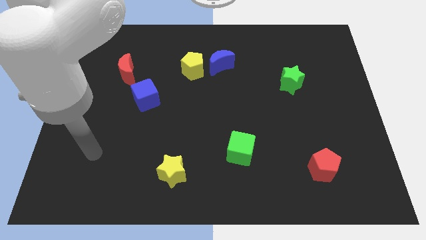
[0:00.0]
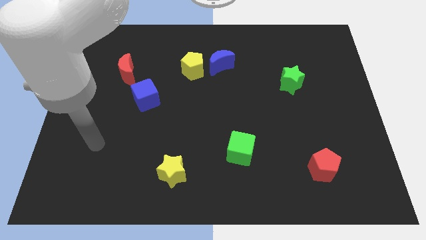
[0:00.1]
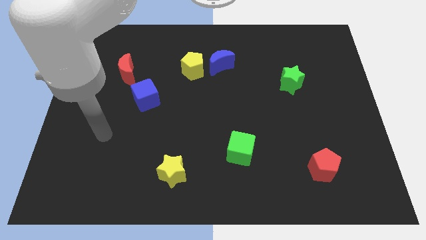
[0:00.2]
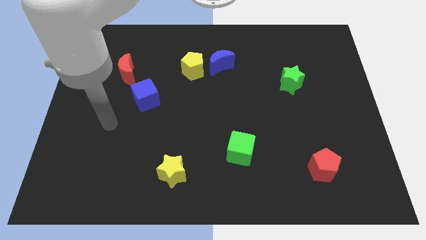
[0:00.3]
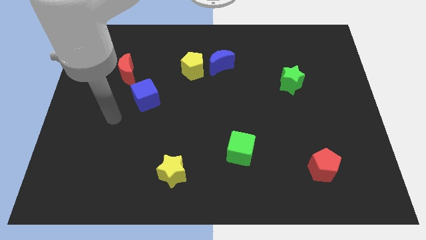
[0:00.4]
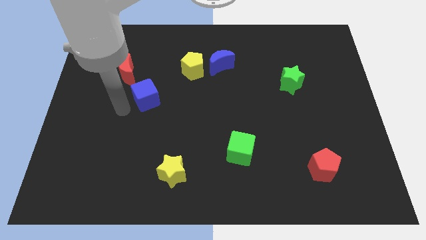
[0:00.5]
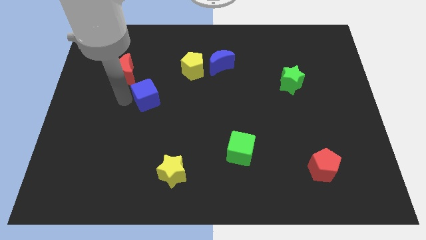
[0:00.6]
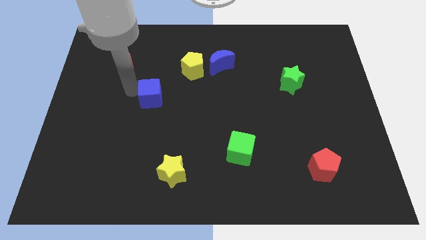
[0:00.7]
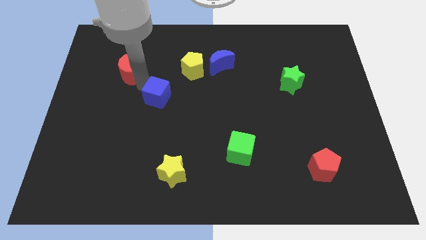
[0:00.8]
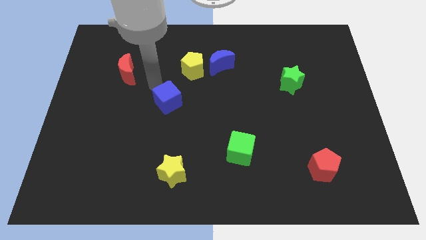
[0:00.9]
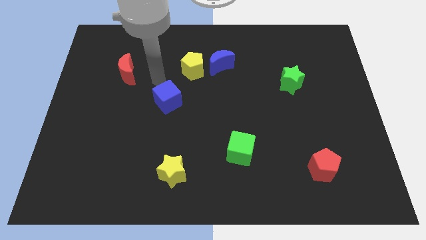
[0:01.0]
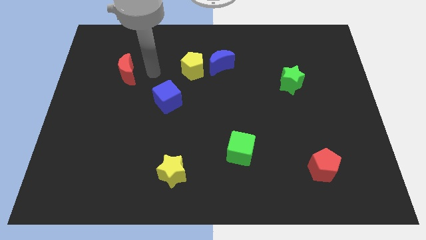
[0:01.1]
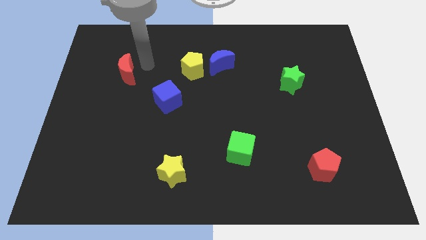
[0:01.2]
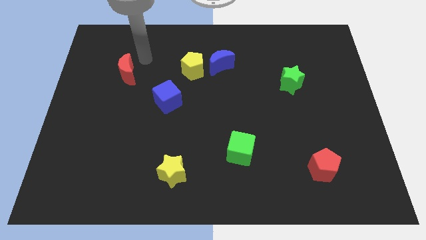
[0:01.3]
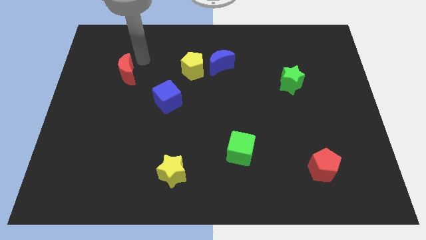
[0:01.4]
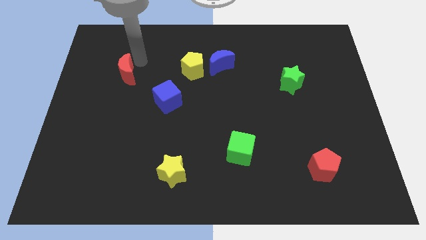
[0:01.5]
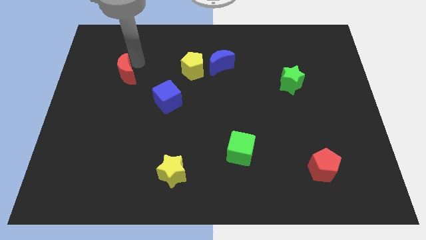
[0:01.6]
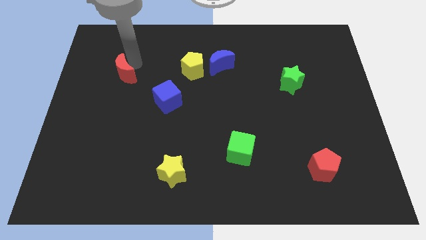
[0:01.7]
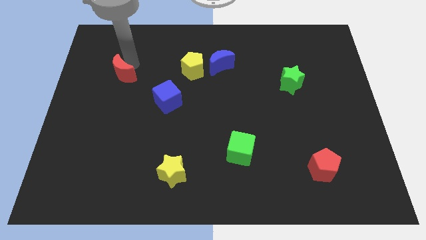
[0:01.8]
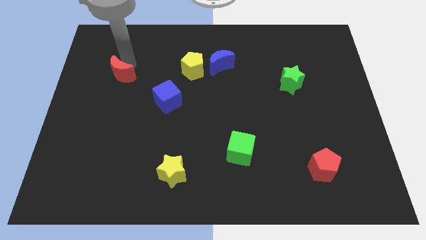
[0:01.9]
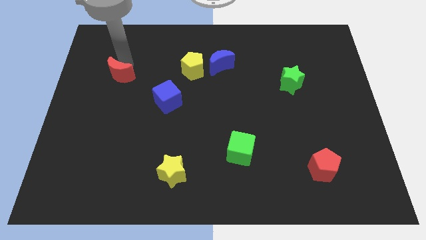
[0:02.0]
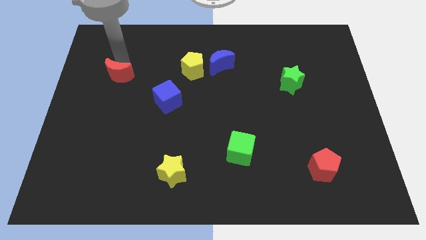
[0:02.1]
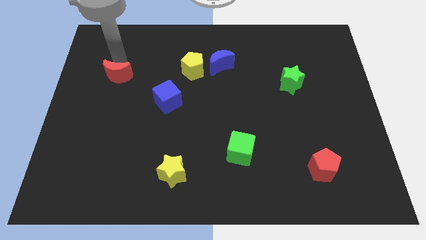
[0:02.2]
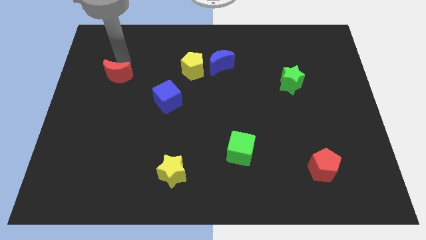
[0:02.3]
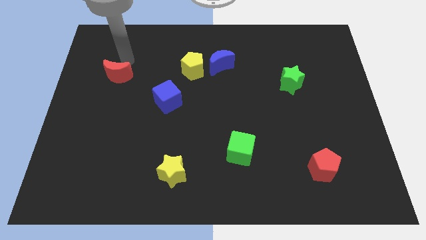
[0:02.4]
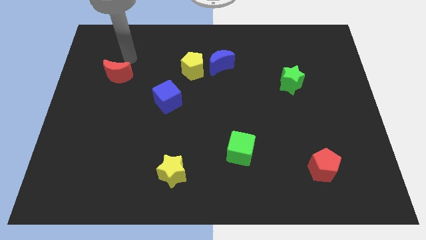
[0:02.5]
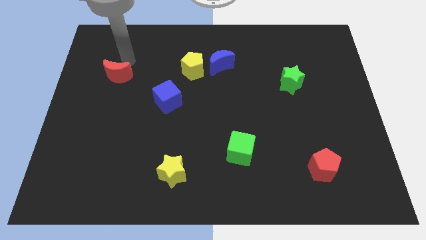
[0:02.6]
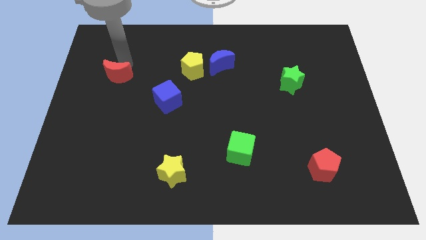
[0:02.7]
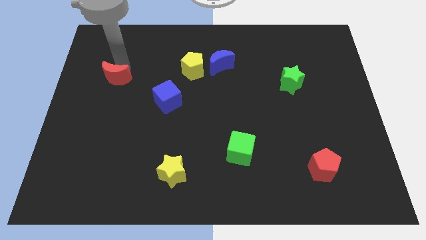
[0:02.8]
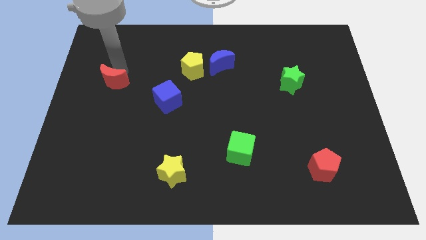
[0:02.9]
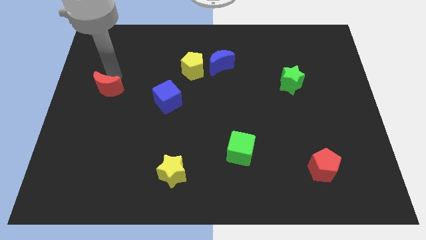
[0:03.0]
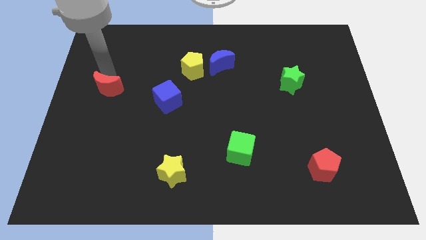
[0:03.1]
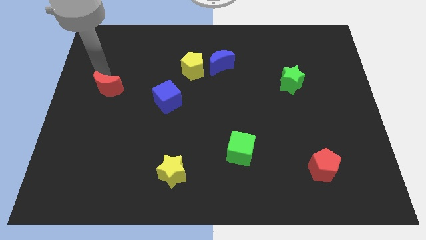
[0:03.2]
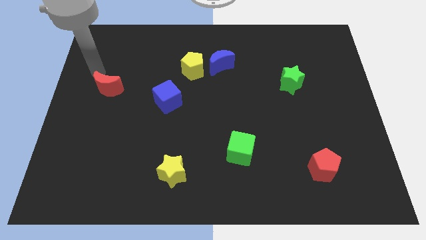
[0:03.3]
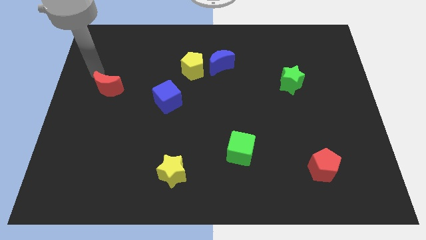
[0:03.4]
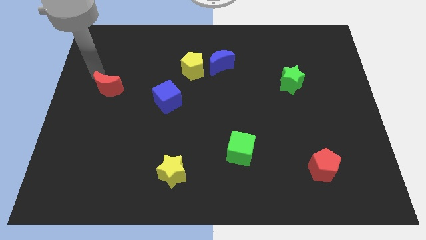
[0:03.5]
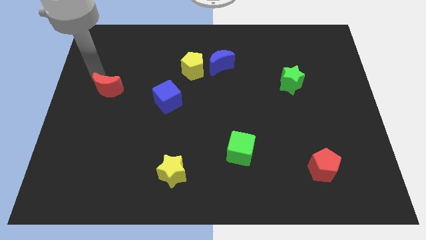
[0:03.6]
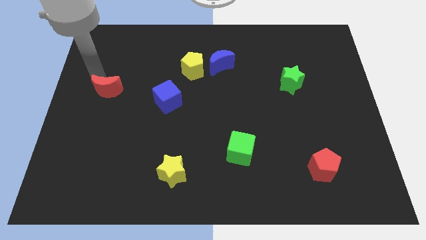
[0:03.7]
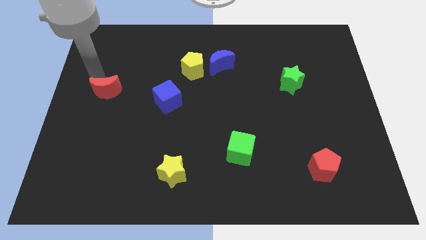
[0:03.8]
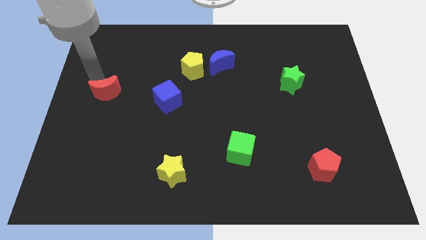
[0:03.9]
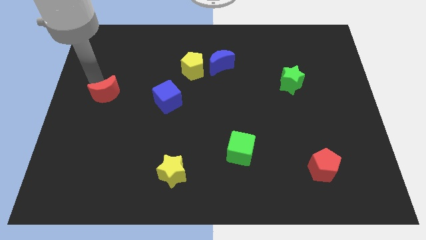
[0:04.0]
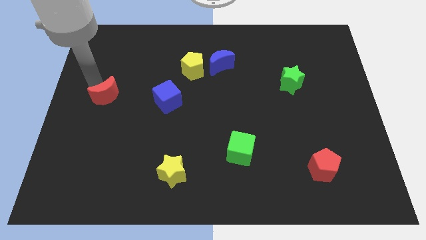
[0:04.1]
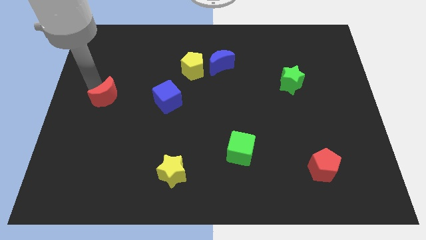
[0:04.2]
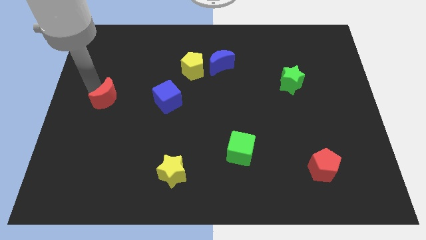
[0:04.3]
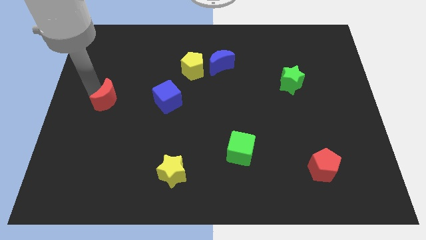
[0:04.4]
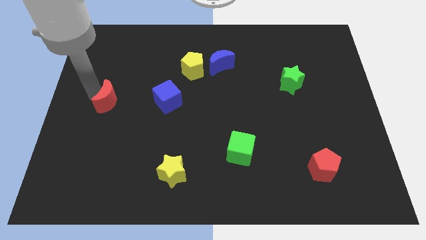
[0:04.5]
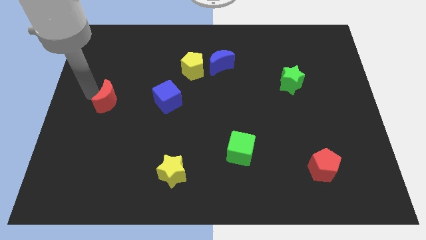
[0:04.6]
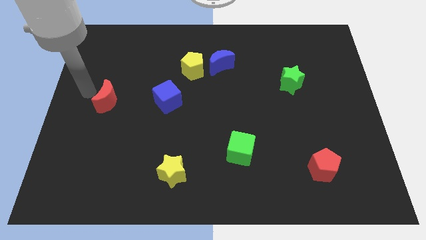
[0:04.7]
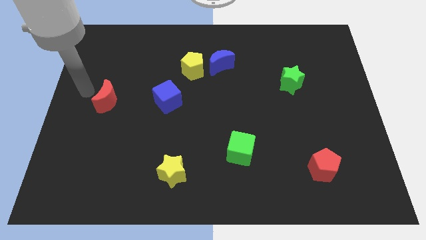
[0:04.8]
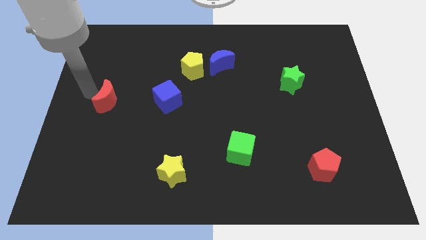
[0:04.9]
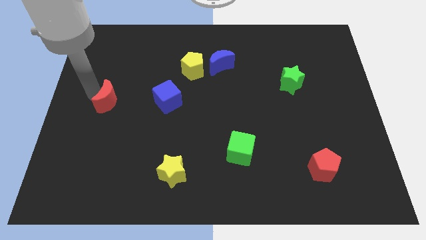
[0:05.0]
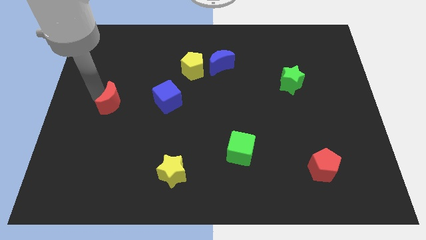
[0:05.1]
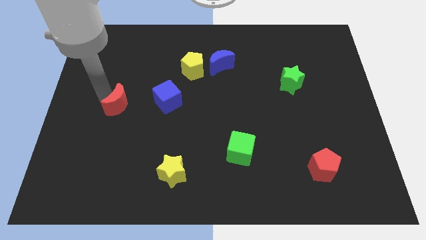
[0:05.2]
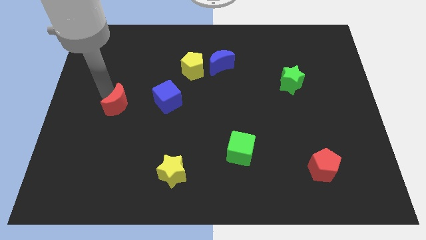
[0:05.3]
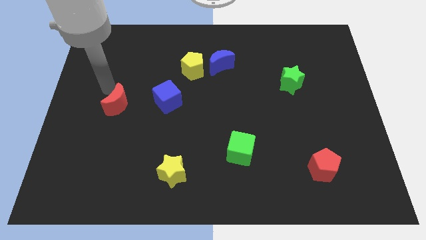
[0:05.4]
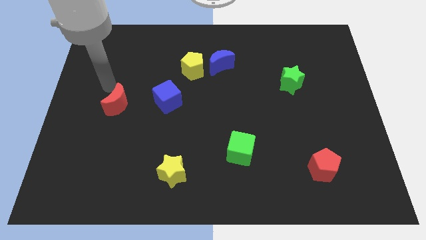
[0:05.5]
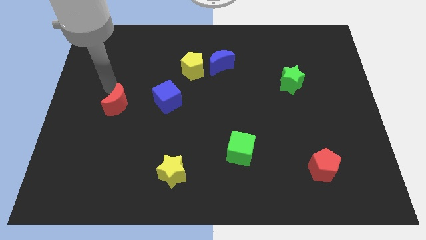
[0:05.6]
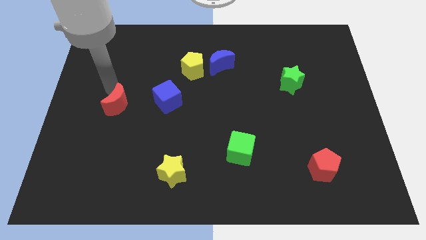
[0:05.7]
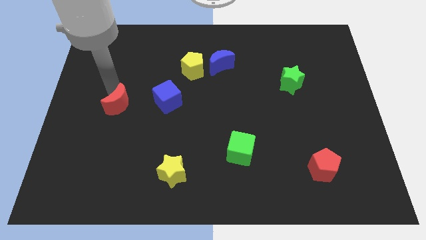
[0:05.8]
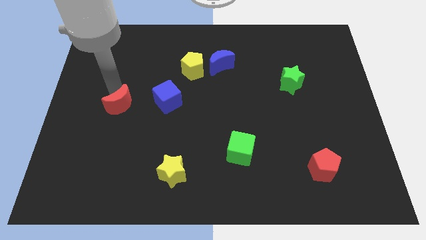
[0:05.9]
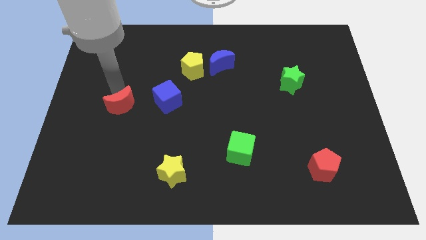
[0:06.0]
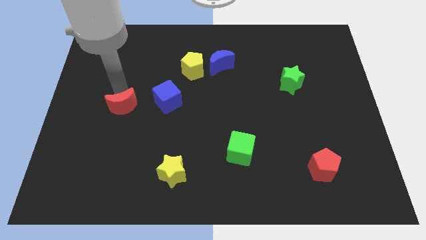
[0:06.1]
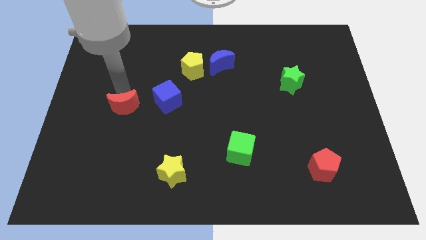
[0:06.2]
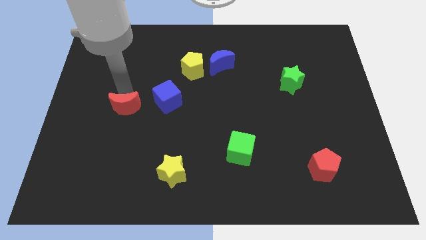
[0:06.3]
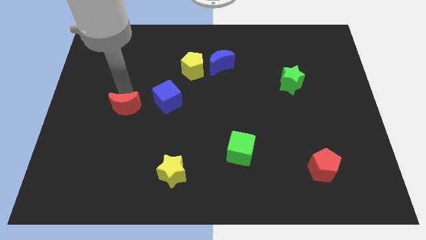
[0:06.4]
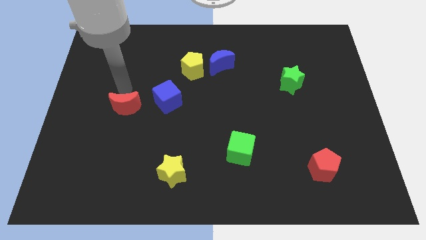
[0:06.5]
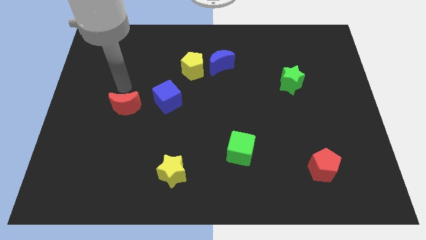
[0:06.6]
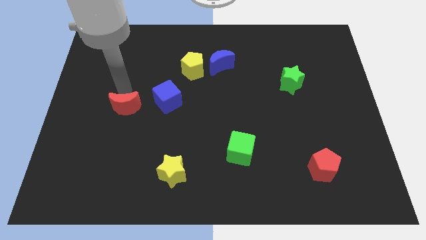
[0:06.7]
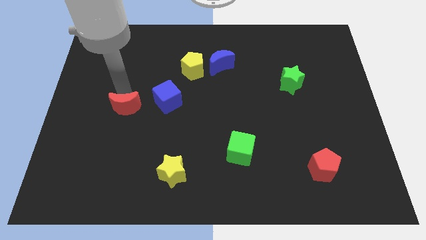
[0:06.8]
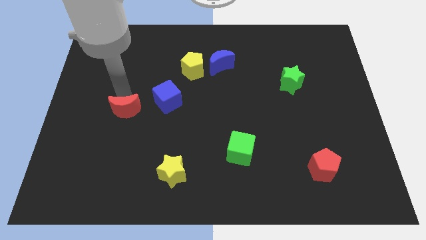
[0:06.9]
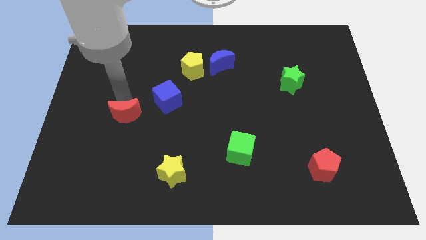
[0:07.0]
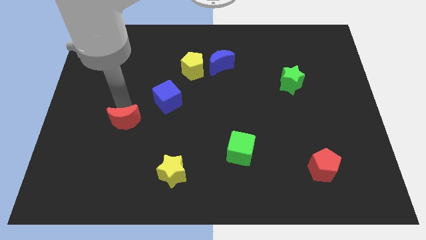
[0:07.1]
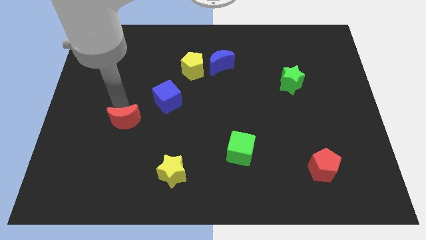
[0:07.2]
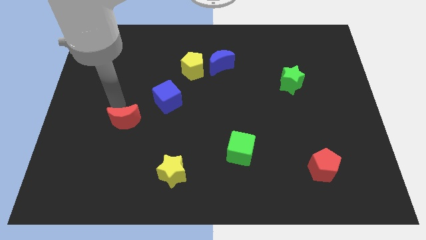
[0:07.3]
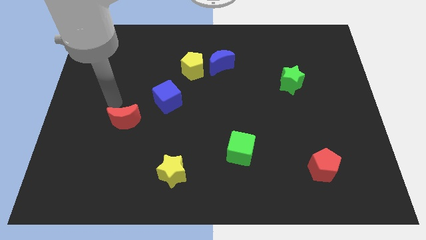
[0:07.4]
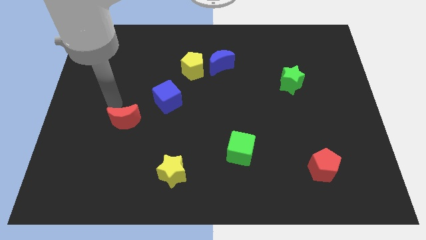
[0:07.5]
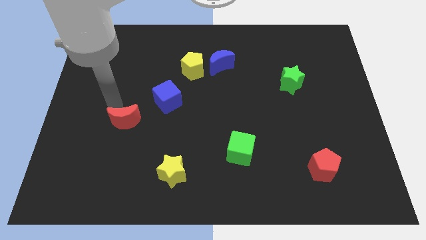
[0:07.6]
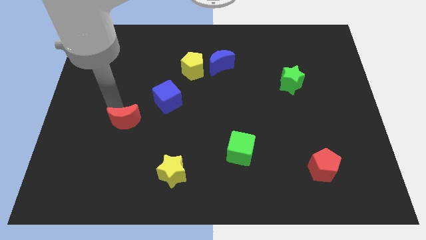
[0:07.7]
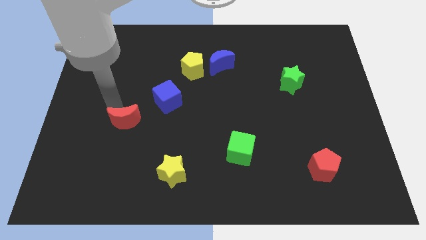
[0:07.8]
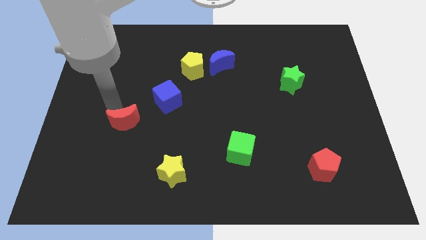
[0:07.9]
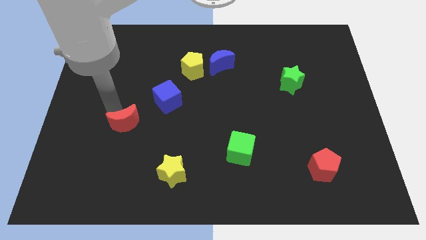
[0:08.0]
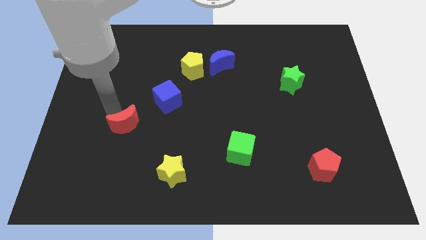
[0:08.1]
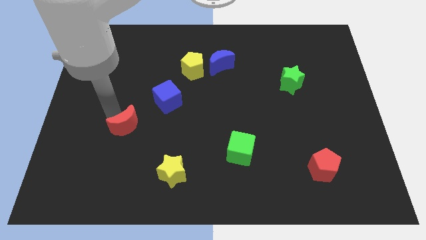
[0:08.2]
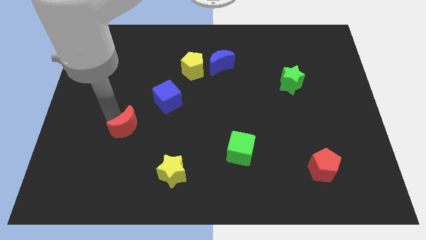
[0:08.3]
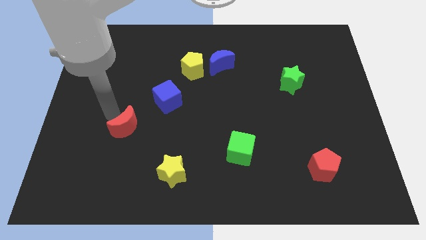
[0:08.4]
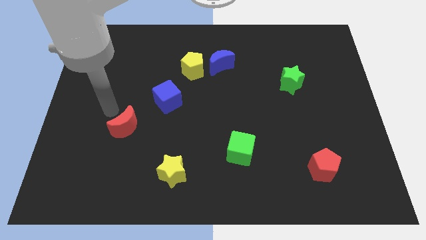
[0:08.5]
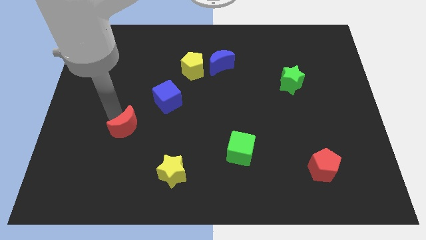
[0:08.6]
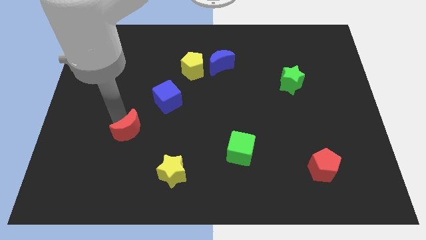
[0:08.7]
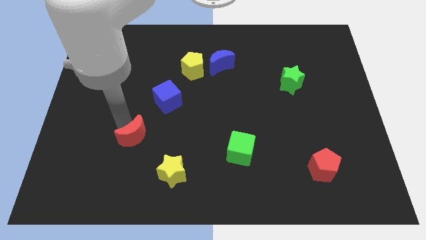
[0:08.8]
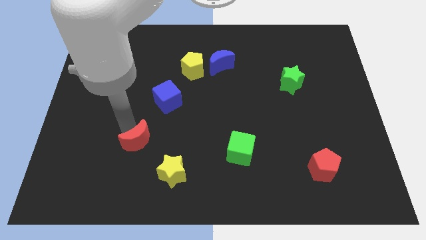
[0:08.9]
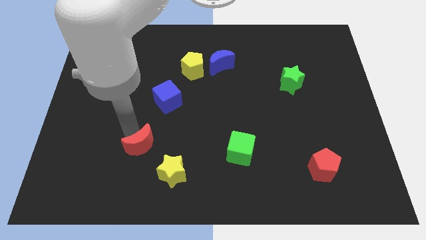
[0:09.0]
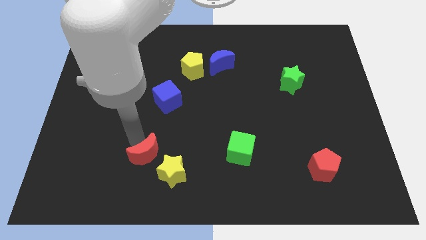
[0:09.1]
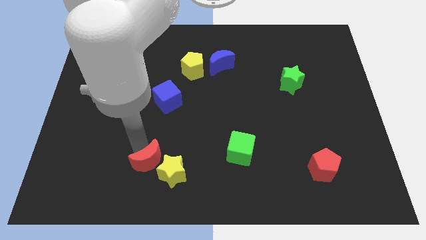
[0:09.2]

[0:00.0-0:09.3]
move the red moon close to the yellow star
